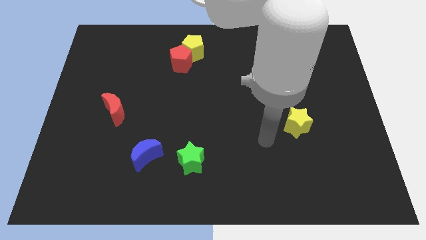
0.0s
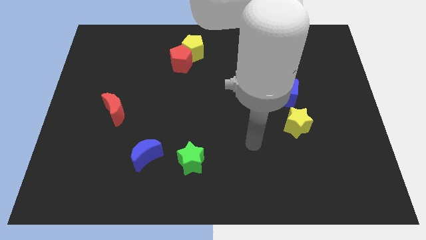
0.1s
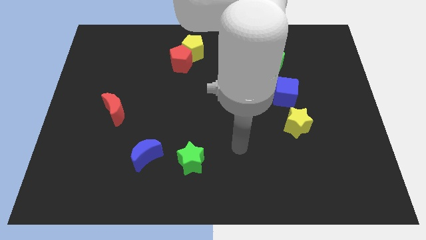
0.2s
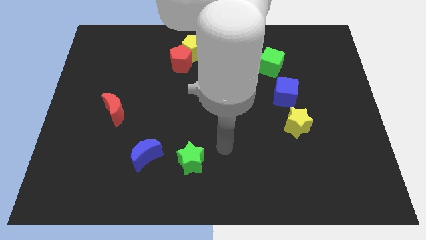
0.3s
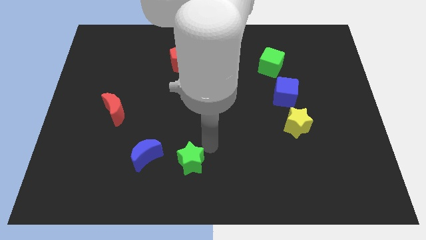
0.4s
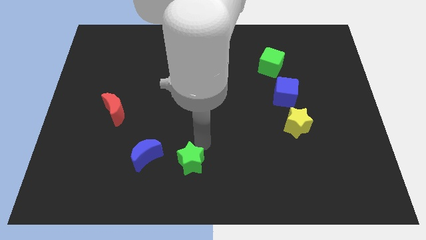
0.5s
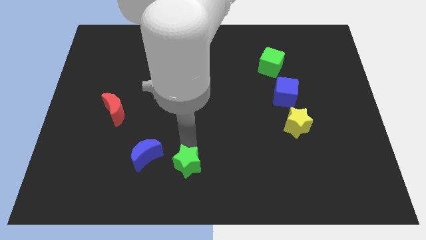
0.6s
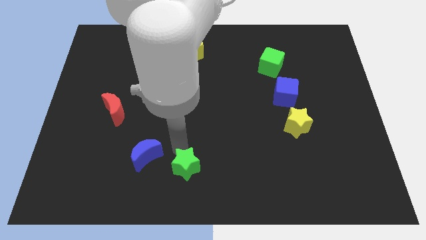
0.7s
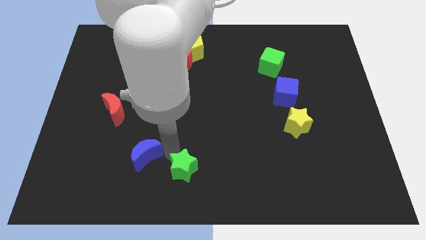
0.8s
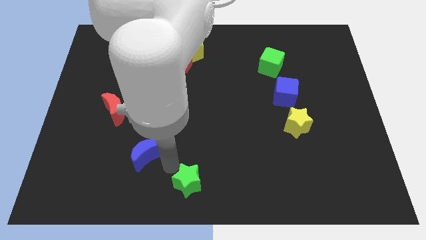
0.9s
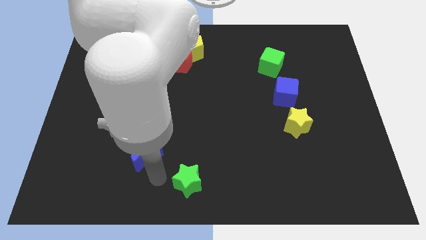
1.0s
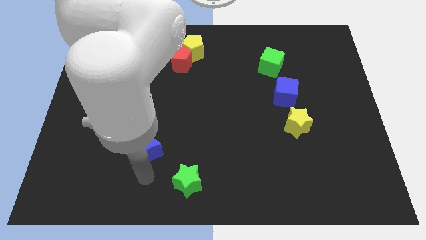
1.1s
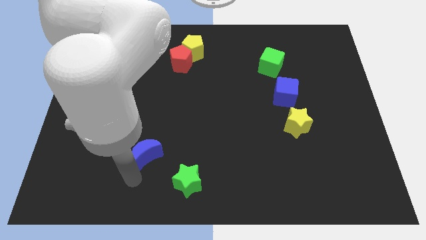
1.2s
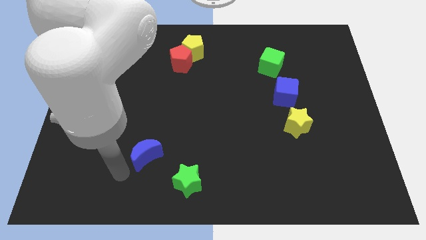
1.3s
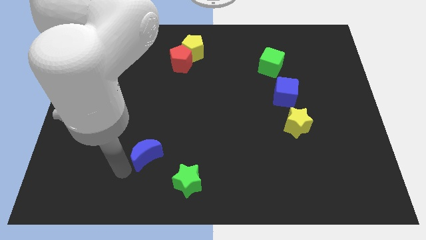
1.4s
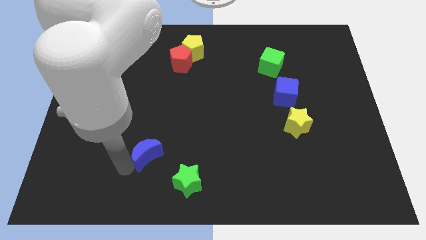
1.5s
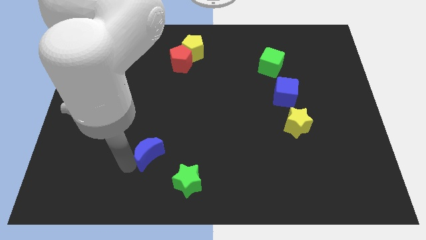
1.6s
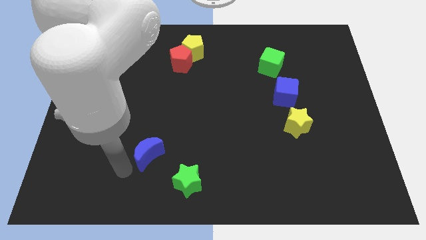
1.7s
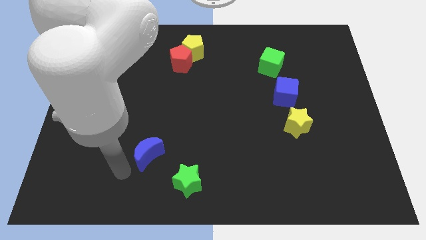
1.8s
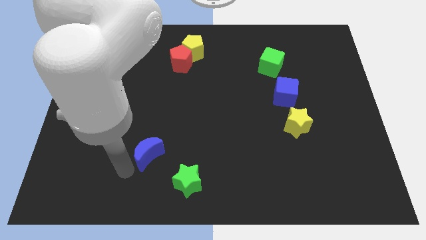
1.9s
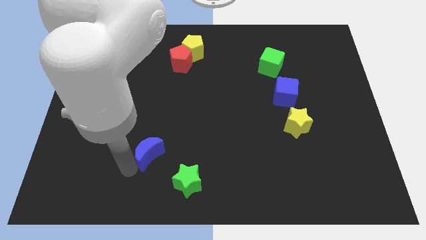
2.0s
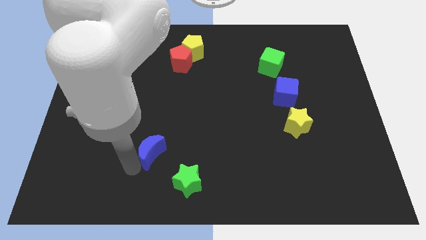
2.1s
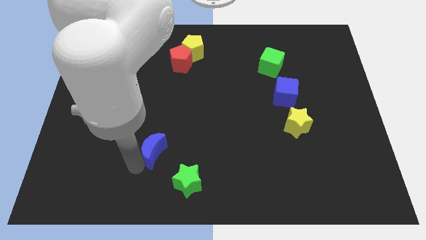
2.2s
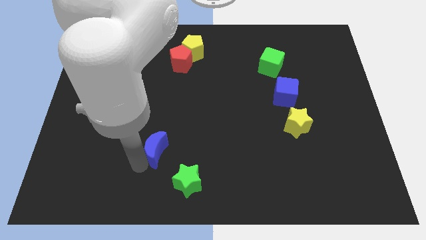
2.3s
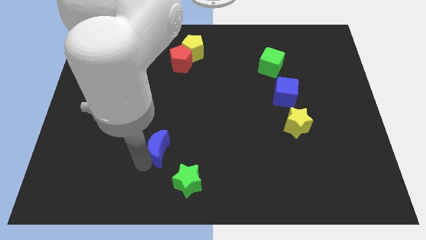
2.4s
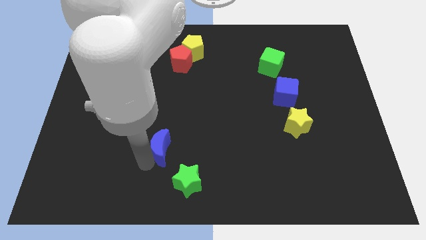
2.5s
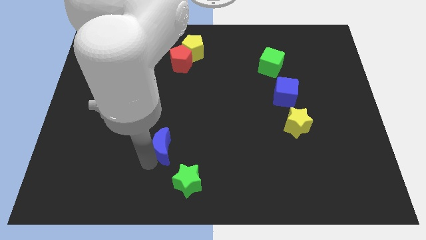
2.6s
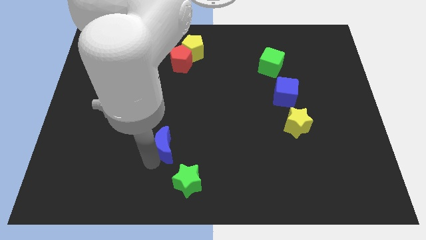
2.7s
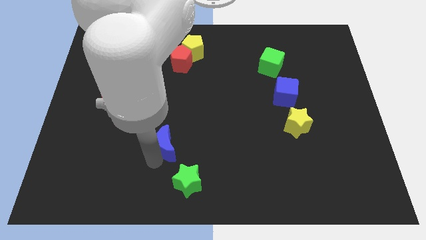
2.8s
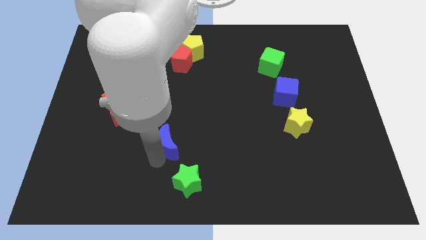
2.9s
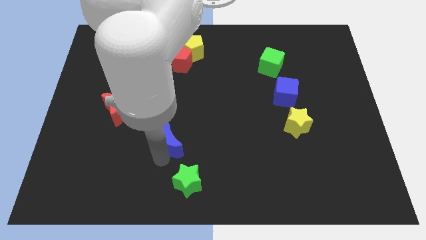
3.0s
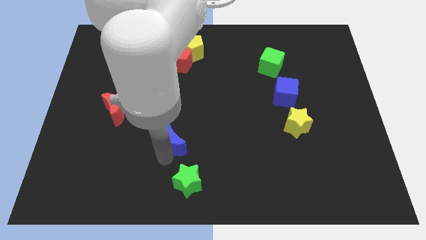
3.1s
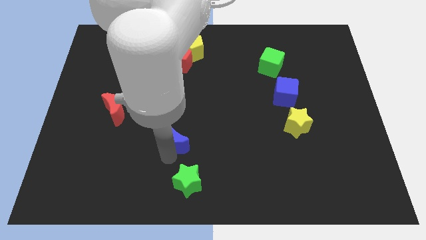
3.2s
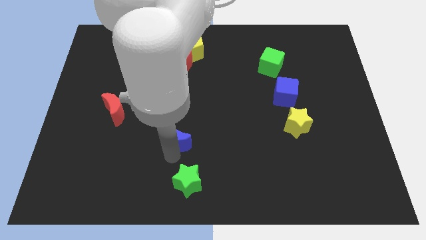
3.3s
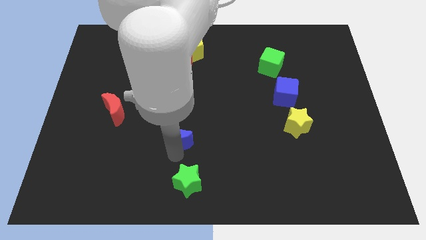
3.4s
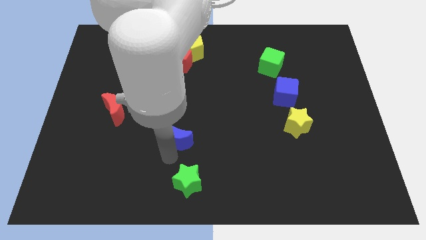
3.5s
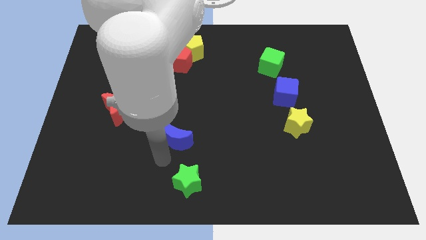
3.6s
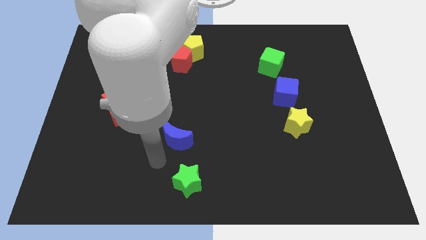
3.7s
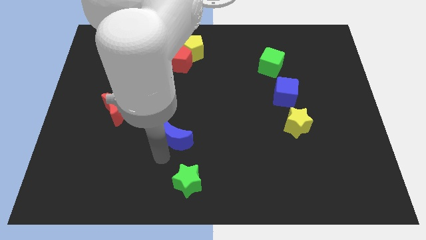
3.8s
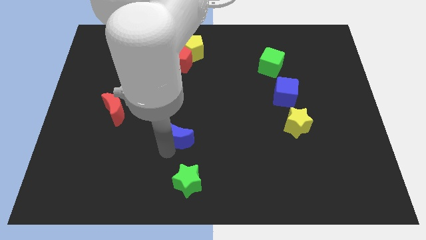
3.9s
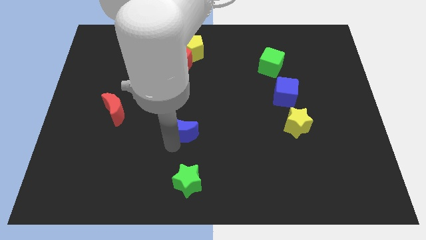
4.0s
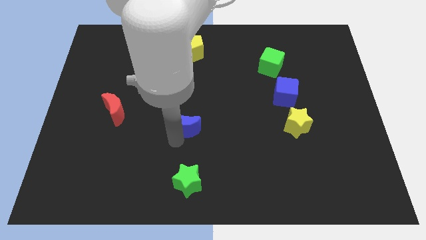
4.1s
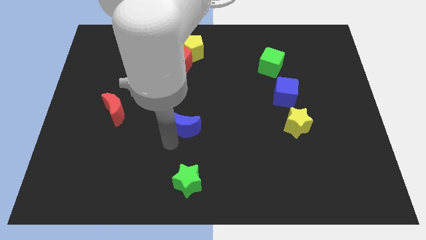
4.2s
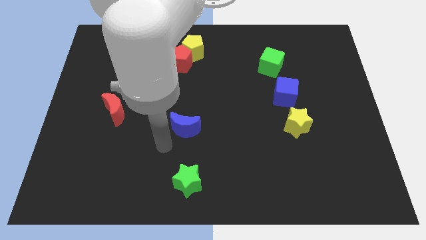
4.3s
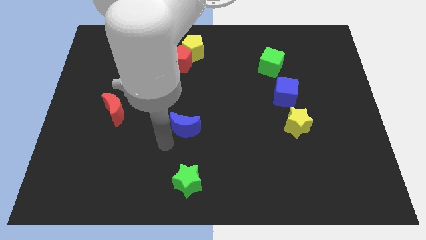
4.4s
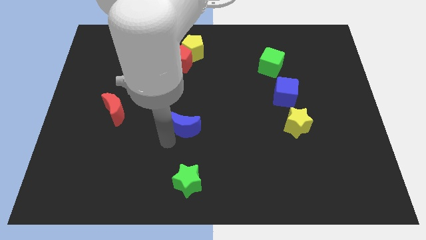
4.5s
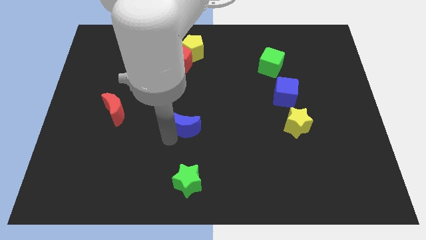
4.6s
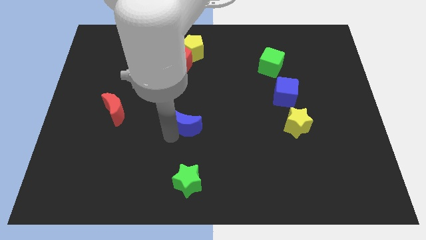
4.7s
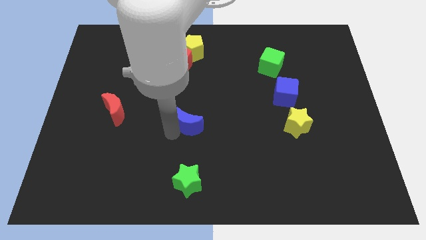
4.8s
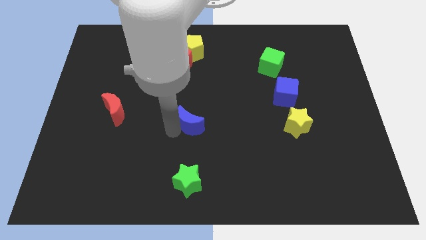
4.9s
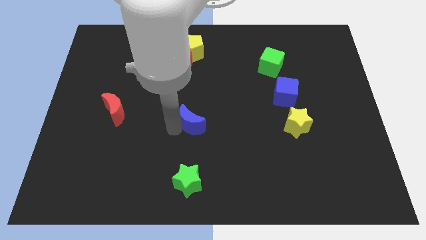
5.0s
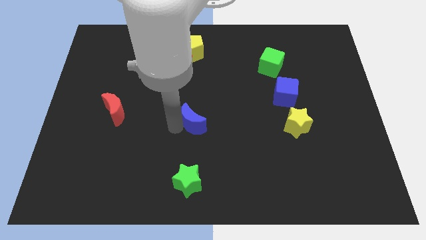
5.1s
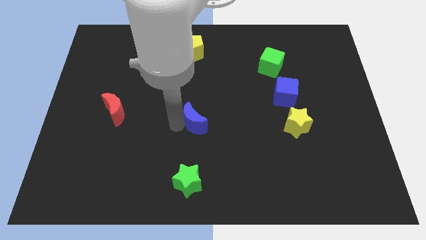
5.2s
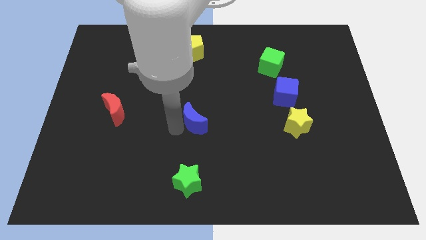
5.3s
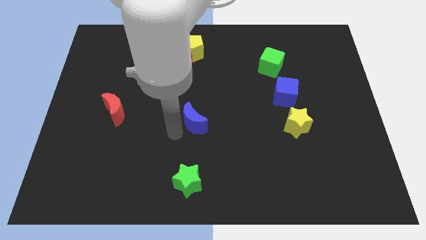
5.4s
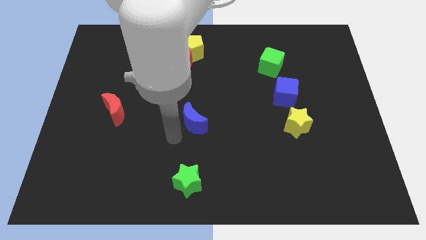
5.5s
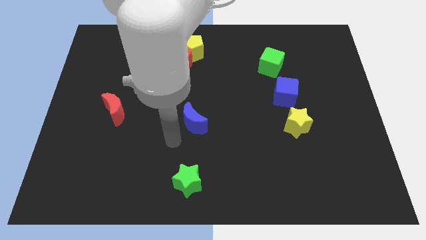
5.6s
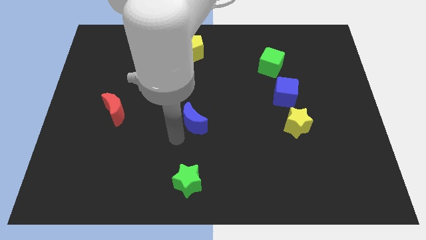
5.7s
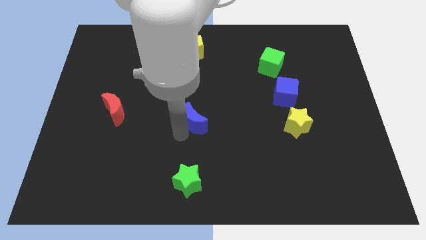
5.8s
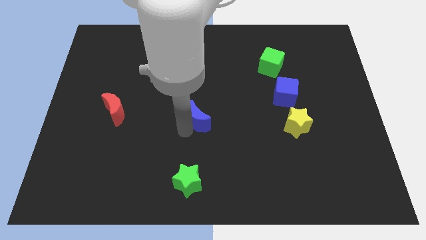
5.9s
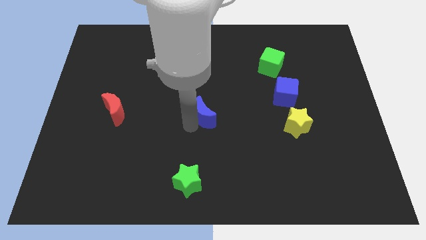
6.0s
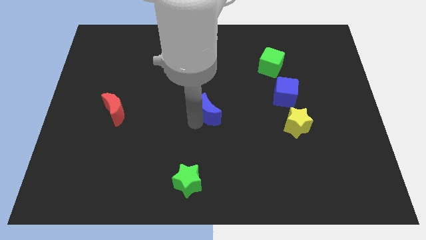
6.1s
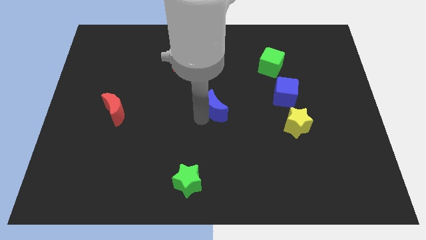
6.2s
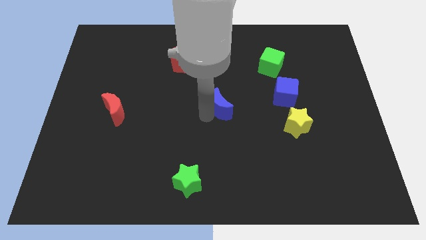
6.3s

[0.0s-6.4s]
move the blue moon upwards and right

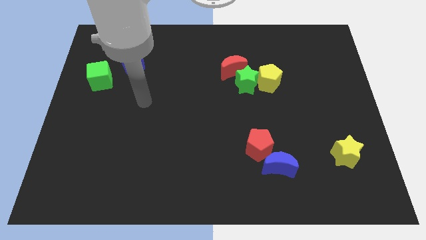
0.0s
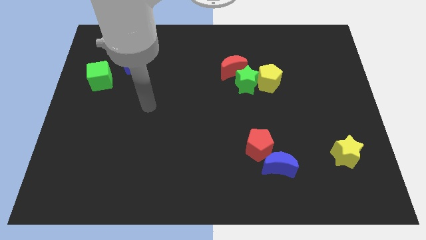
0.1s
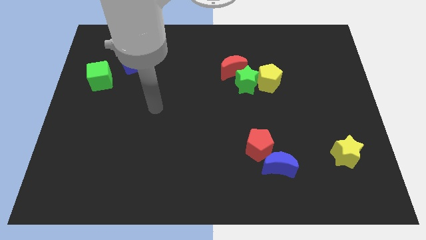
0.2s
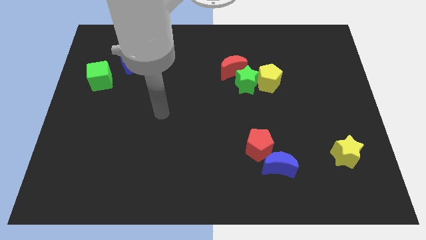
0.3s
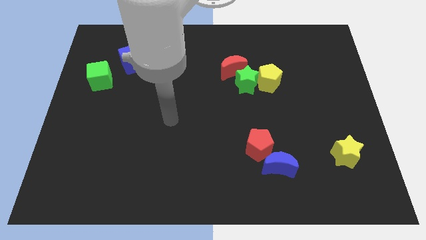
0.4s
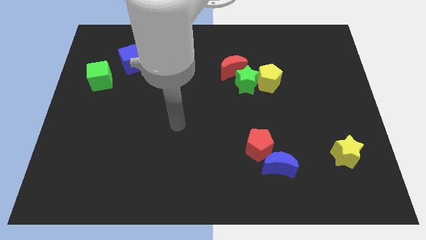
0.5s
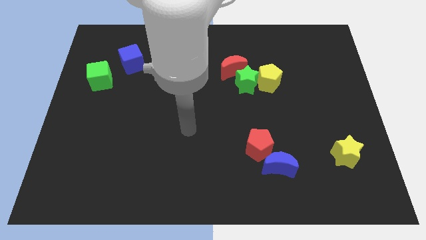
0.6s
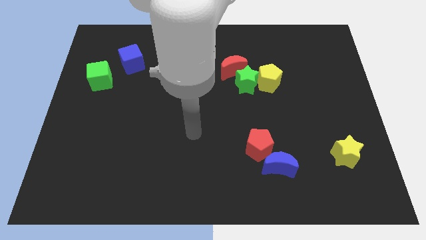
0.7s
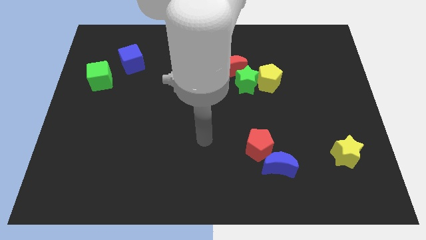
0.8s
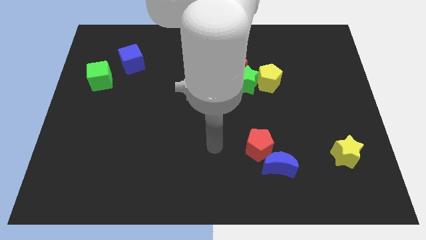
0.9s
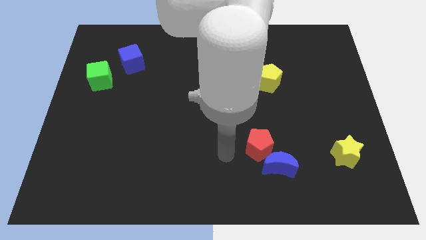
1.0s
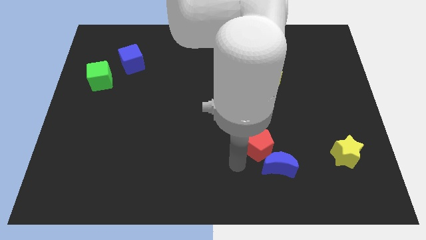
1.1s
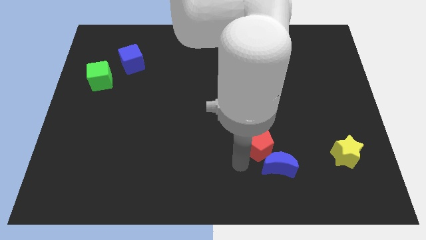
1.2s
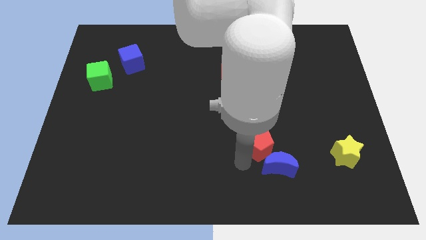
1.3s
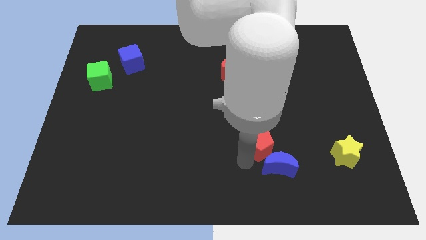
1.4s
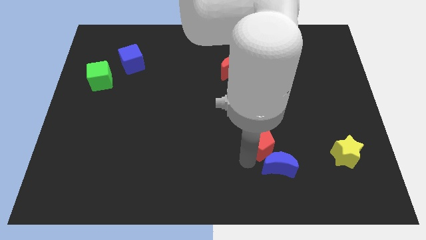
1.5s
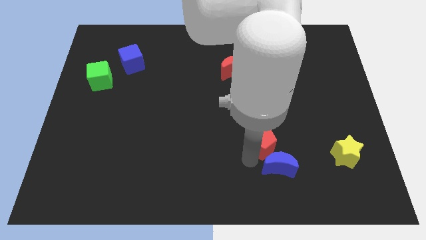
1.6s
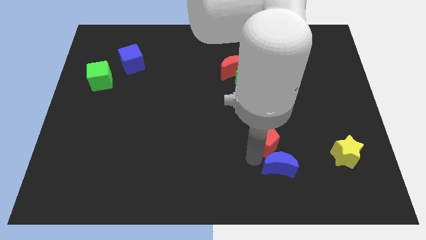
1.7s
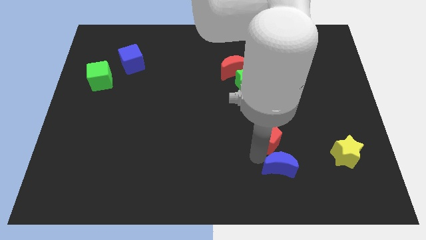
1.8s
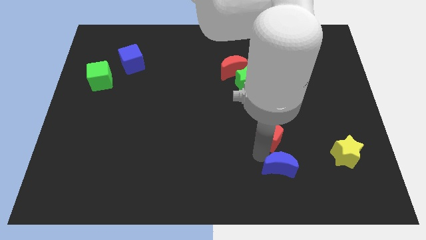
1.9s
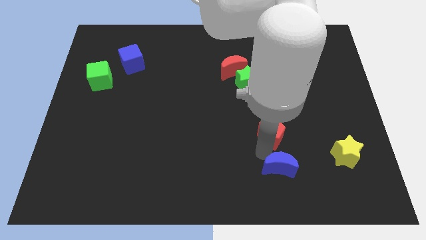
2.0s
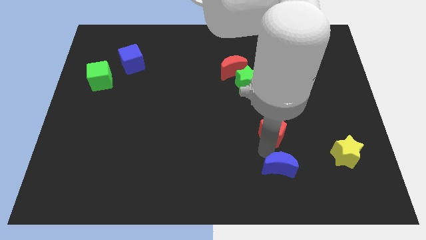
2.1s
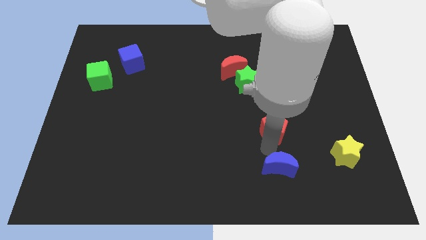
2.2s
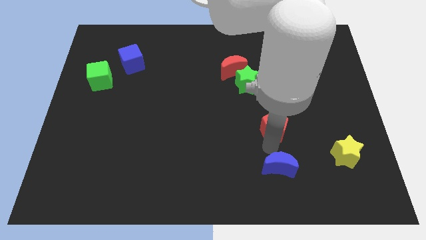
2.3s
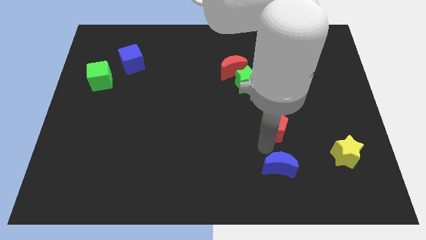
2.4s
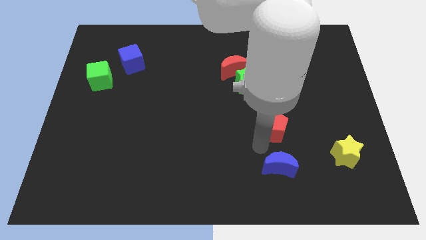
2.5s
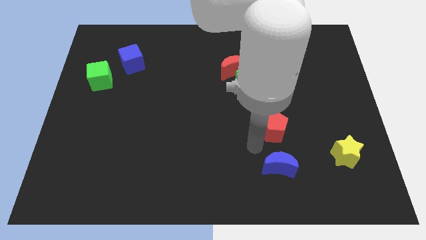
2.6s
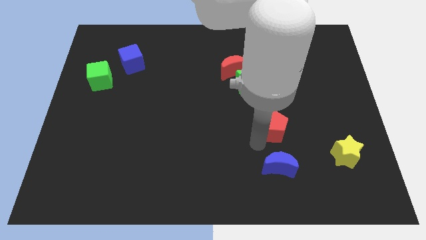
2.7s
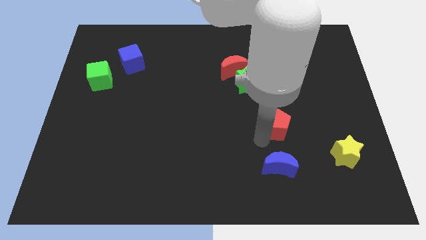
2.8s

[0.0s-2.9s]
slide the red pentagon slightly diagonally upwards and to the right
